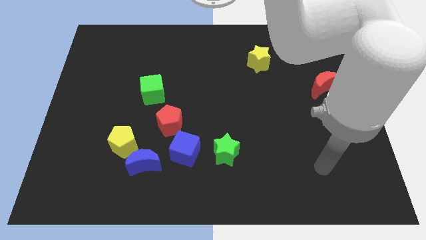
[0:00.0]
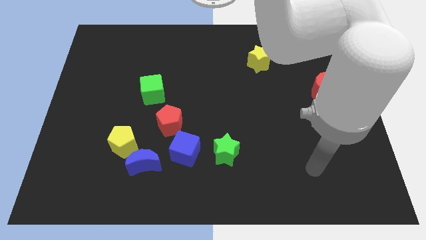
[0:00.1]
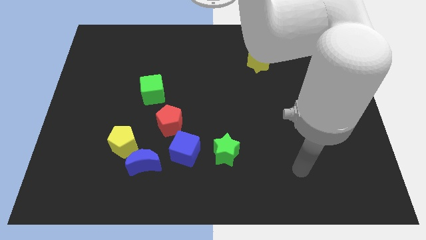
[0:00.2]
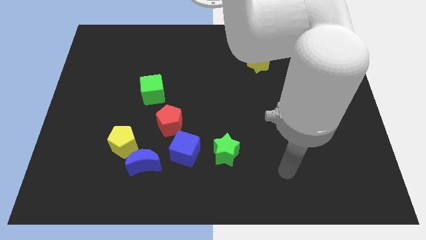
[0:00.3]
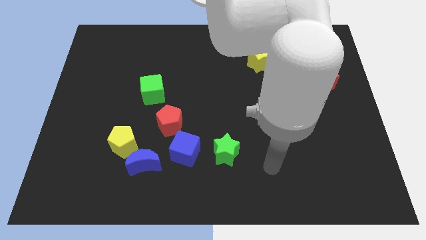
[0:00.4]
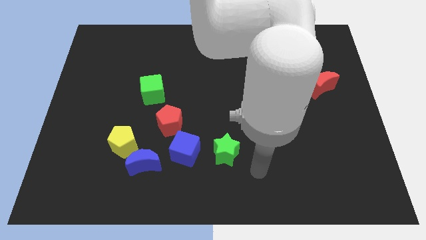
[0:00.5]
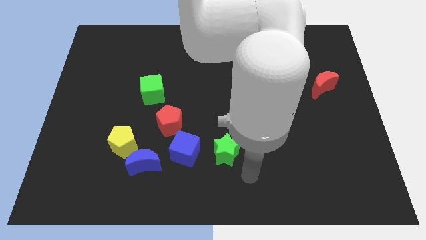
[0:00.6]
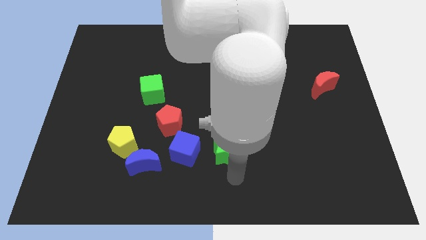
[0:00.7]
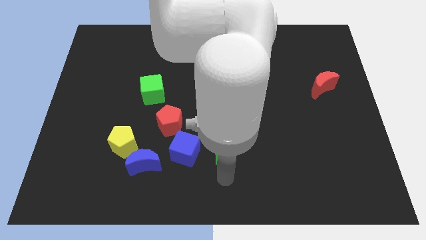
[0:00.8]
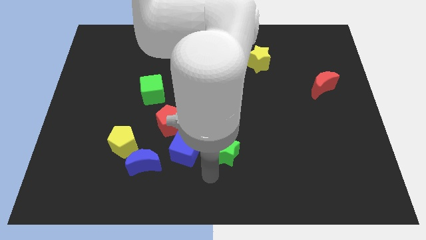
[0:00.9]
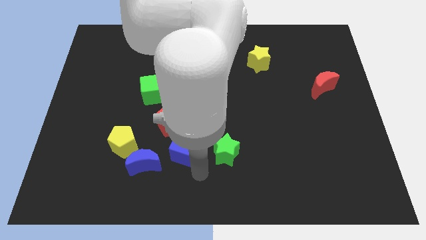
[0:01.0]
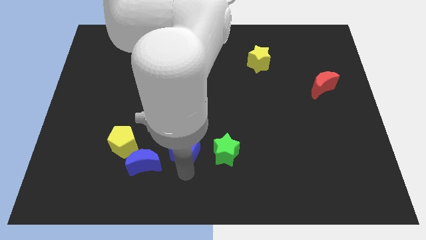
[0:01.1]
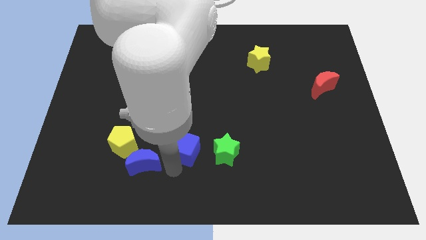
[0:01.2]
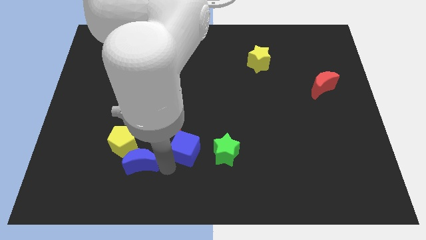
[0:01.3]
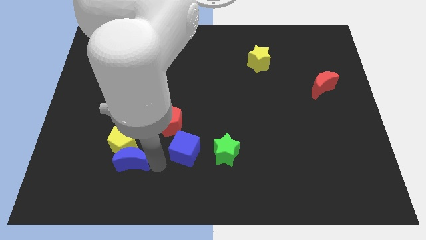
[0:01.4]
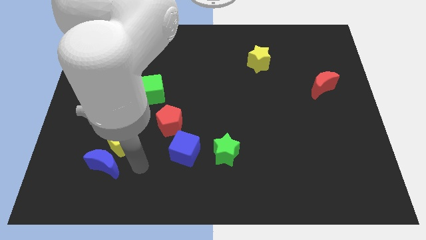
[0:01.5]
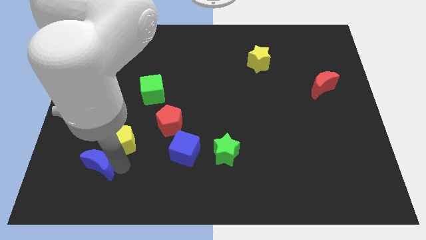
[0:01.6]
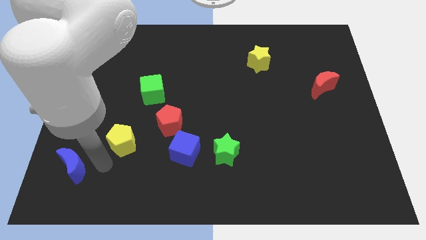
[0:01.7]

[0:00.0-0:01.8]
move the yellow pentagon away from the blue moon
